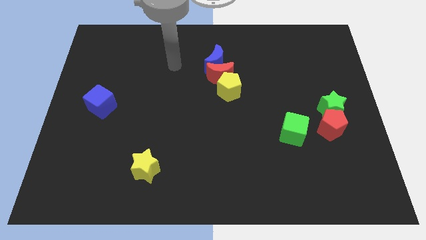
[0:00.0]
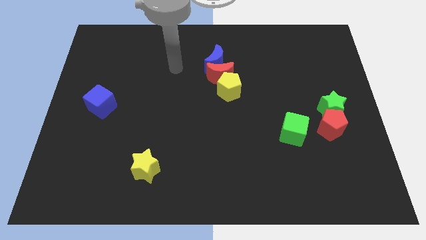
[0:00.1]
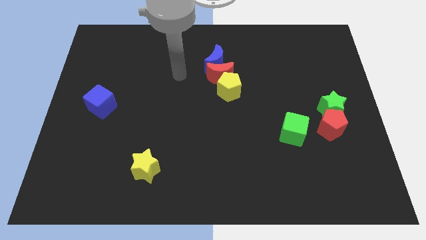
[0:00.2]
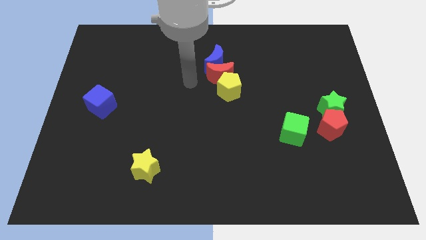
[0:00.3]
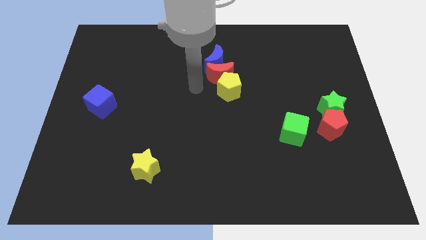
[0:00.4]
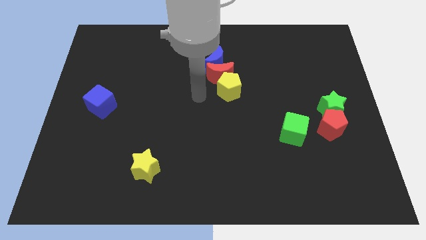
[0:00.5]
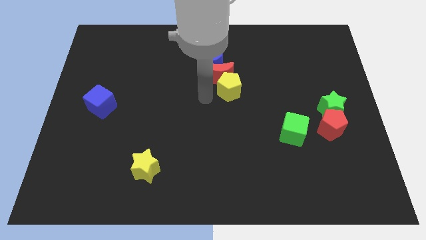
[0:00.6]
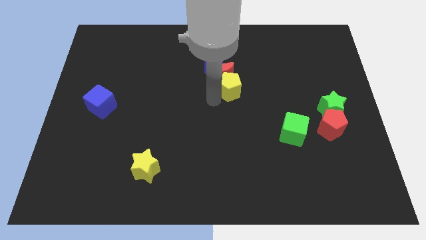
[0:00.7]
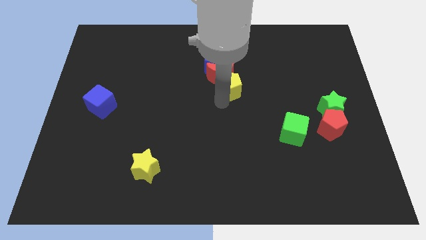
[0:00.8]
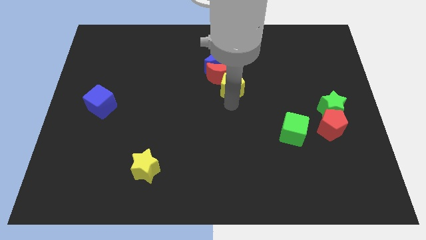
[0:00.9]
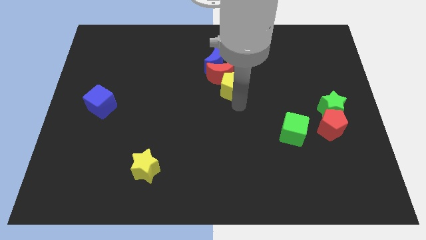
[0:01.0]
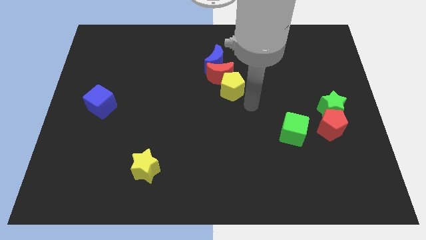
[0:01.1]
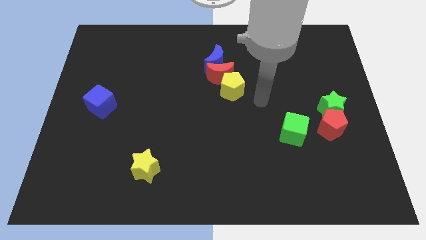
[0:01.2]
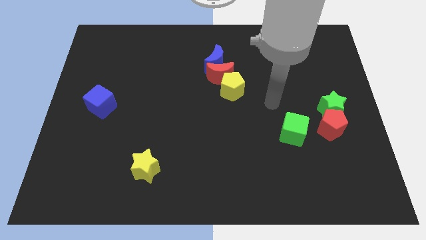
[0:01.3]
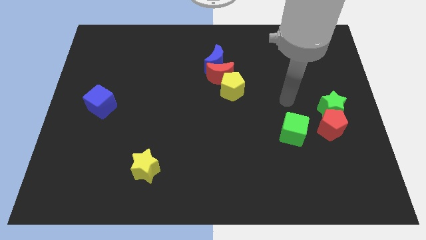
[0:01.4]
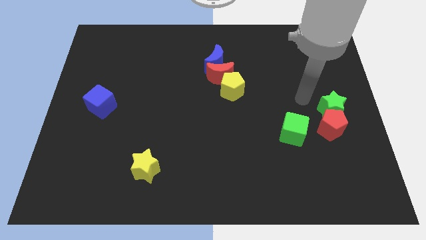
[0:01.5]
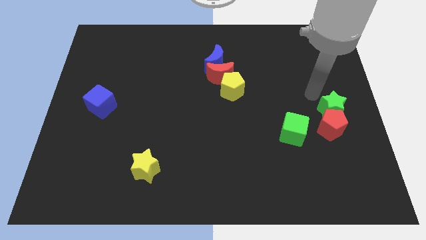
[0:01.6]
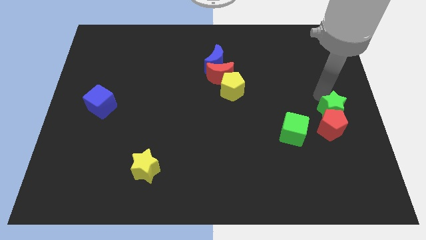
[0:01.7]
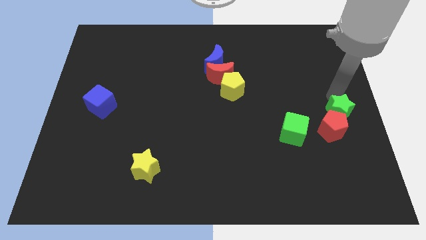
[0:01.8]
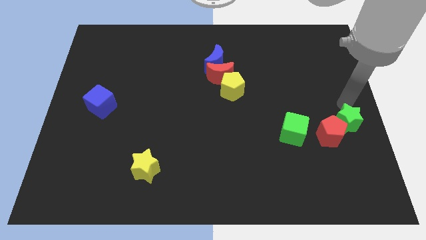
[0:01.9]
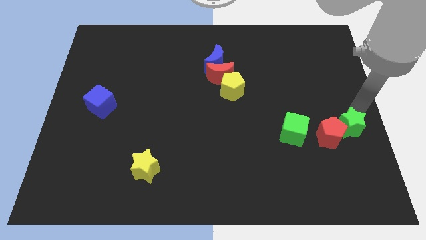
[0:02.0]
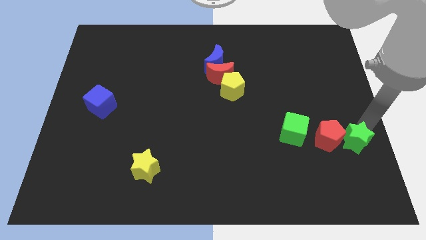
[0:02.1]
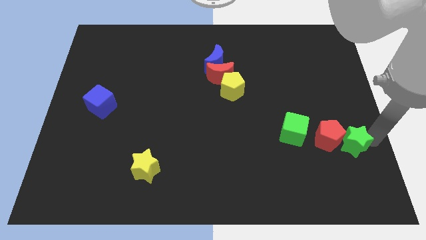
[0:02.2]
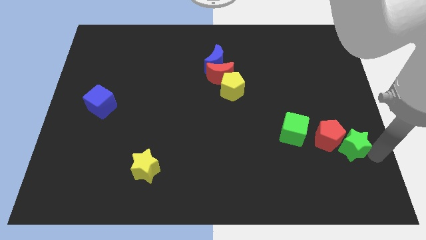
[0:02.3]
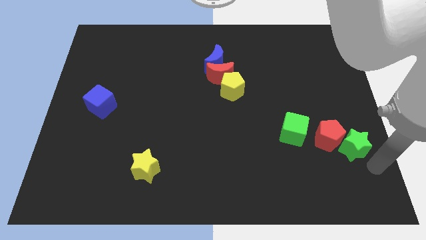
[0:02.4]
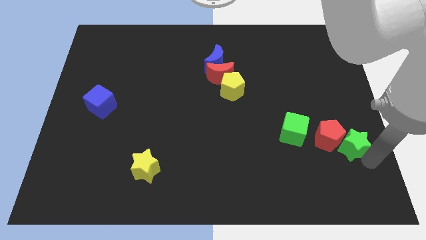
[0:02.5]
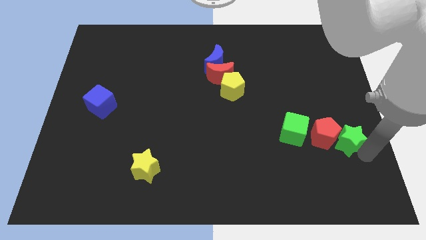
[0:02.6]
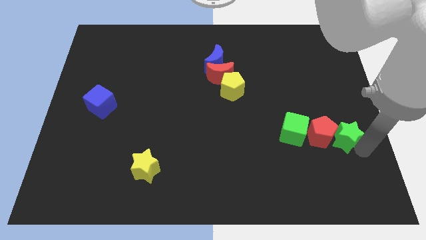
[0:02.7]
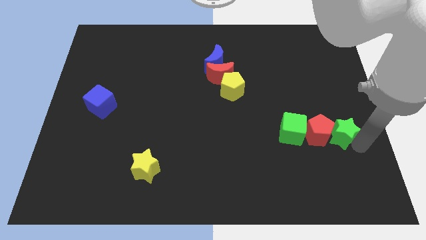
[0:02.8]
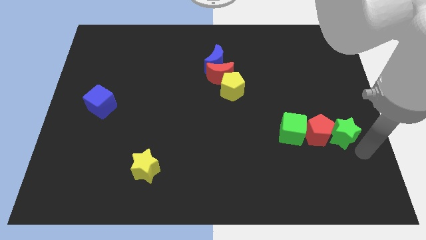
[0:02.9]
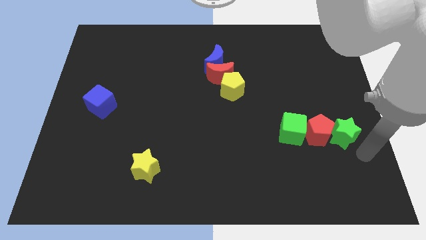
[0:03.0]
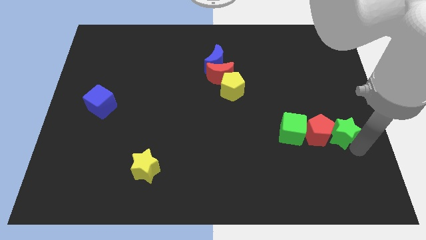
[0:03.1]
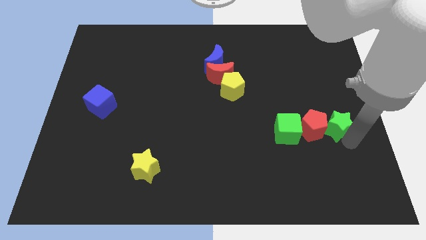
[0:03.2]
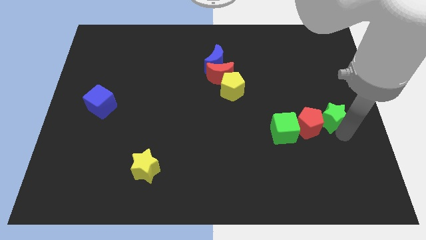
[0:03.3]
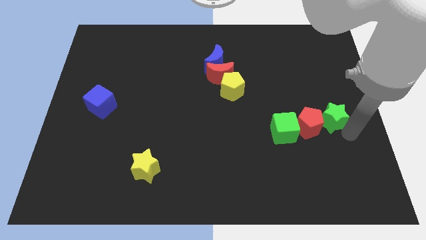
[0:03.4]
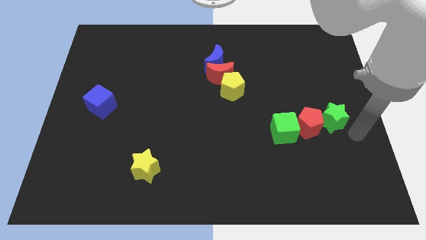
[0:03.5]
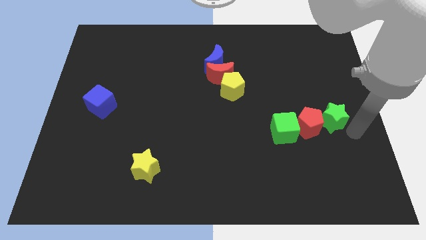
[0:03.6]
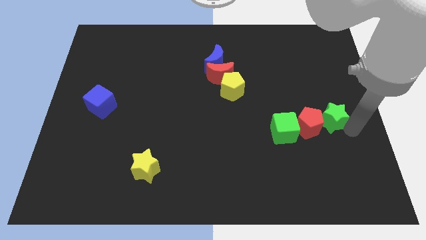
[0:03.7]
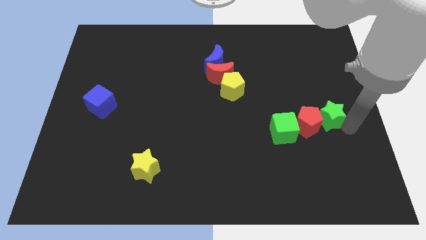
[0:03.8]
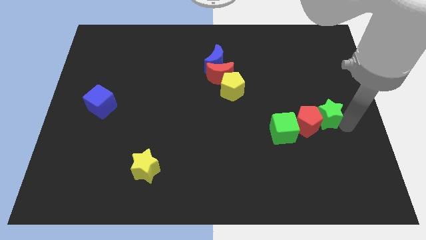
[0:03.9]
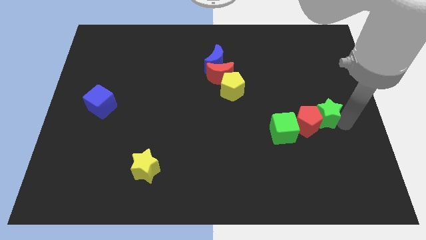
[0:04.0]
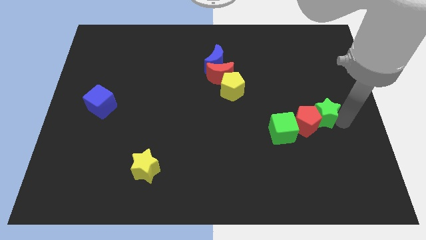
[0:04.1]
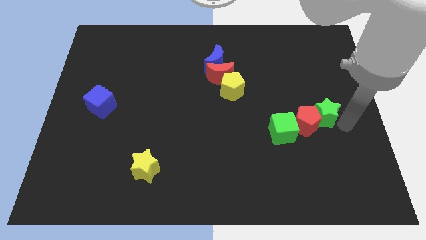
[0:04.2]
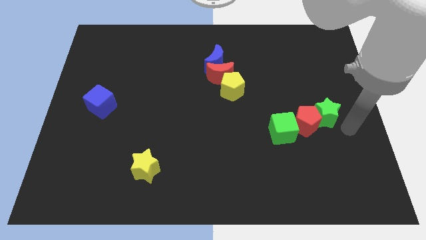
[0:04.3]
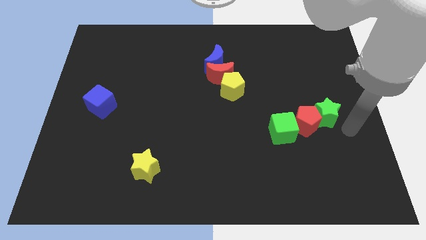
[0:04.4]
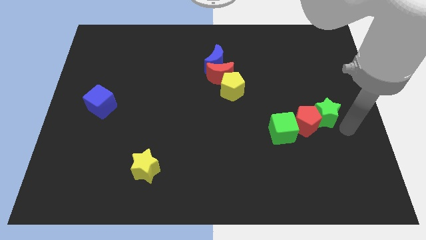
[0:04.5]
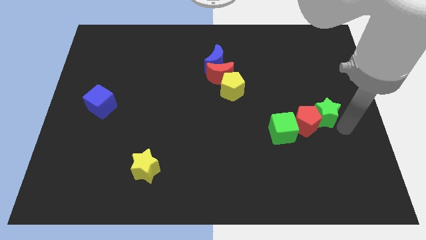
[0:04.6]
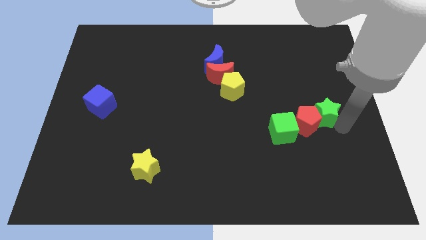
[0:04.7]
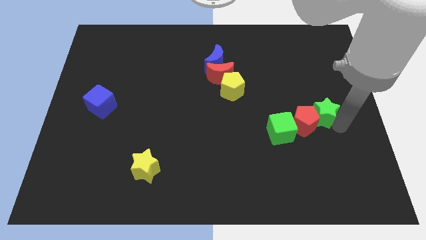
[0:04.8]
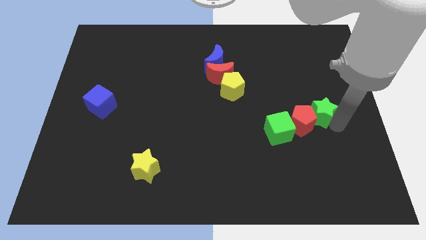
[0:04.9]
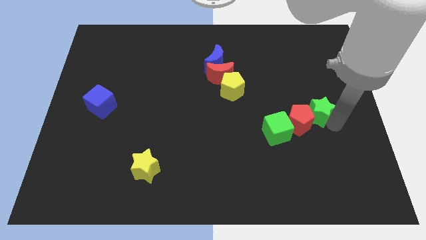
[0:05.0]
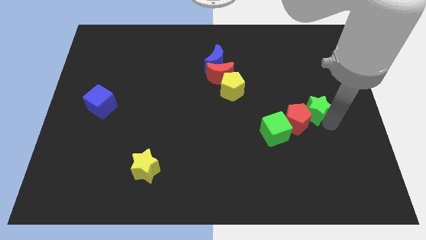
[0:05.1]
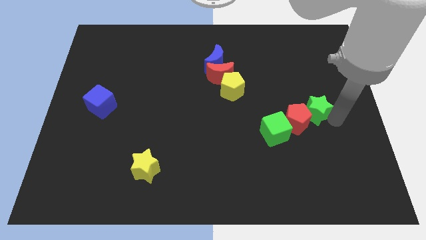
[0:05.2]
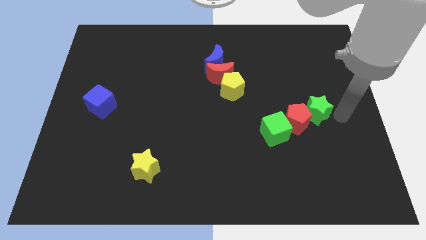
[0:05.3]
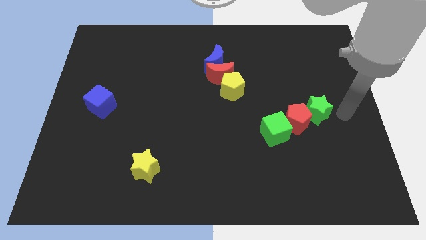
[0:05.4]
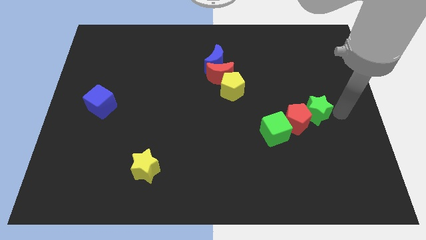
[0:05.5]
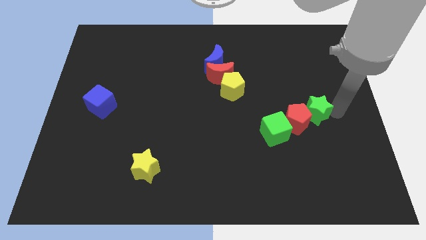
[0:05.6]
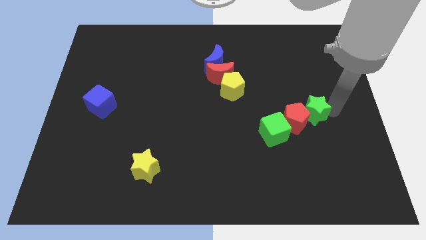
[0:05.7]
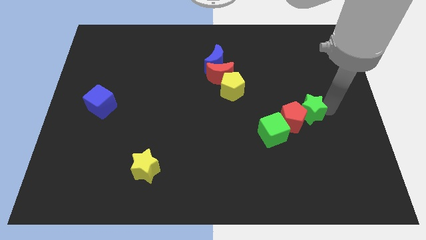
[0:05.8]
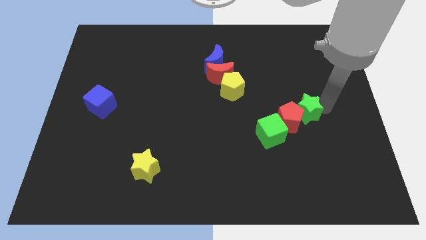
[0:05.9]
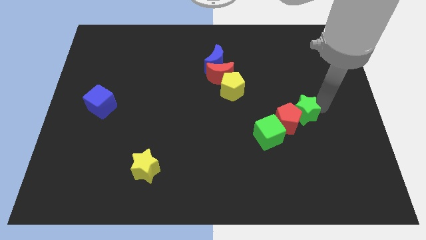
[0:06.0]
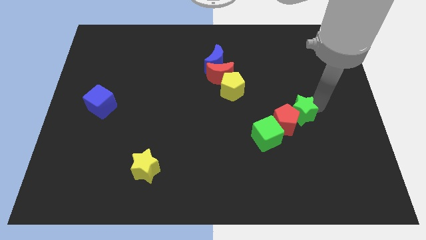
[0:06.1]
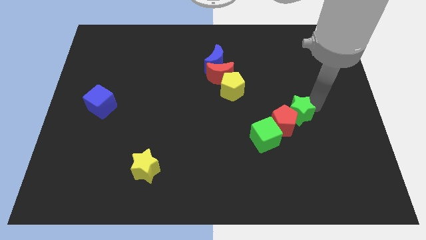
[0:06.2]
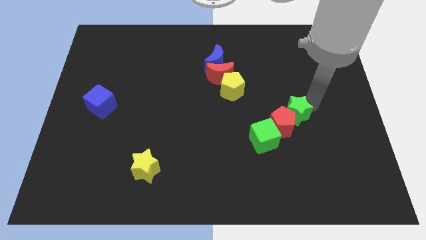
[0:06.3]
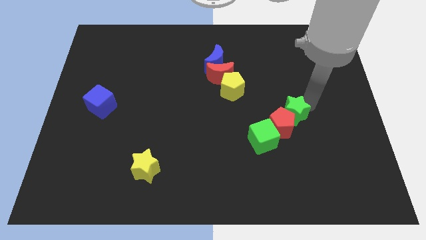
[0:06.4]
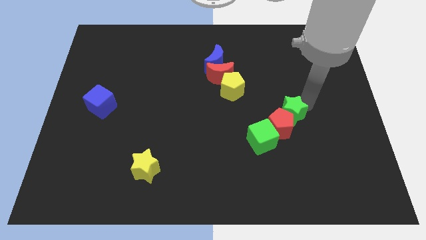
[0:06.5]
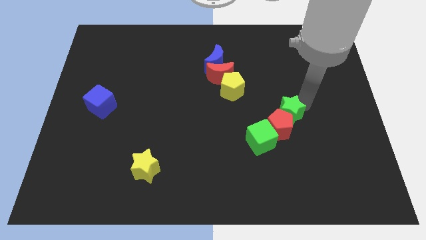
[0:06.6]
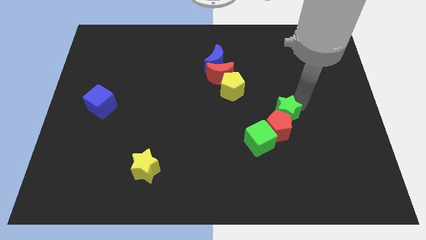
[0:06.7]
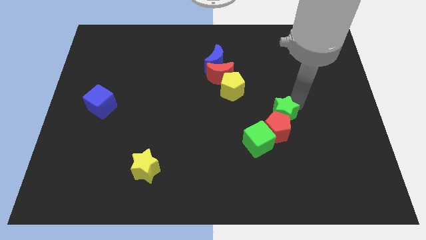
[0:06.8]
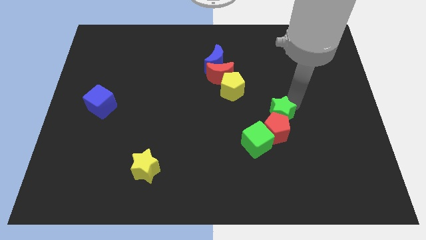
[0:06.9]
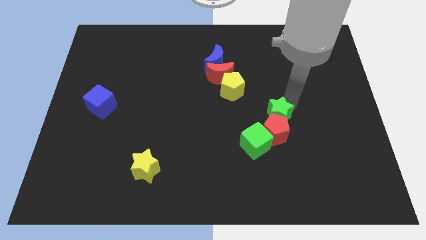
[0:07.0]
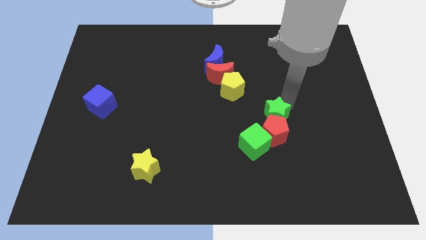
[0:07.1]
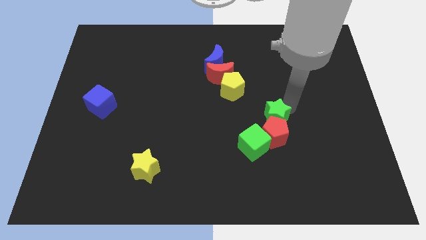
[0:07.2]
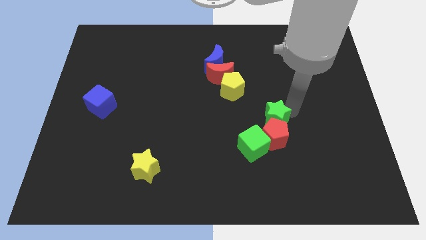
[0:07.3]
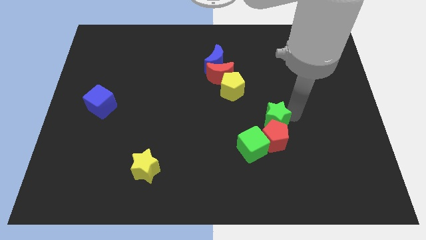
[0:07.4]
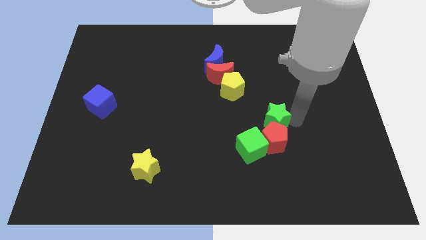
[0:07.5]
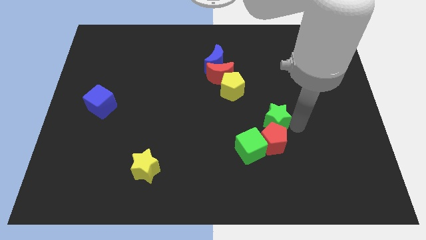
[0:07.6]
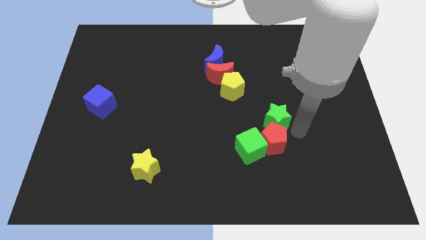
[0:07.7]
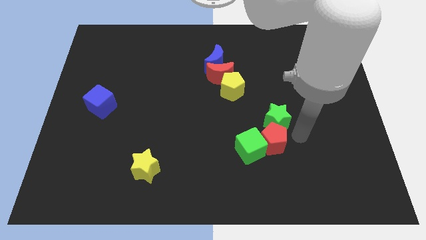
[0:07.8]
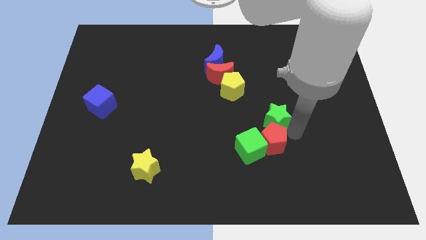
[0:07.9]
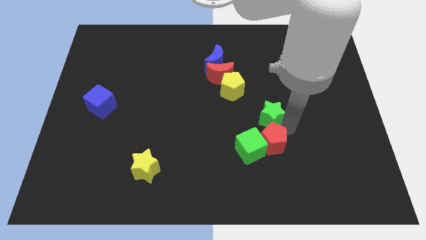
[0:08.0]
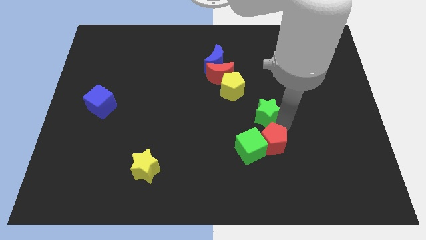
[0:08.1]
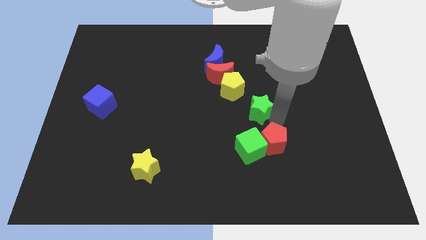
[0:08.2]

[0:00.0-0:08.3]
move the green star to the center
